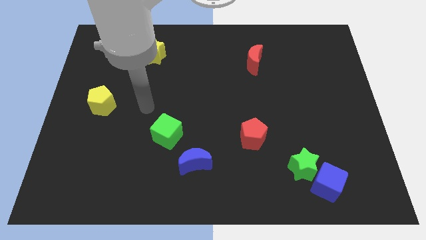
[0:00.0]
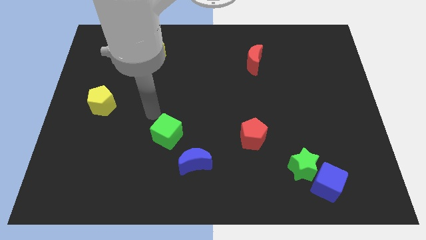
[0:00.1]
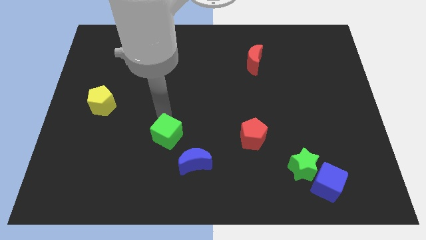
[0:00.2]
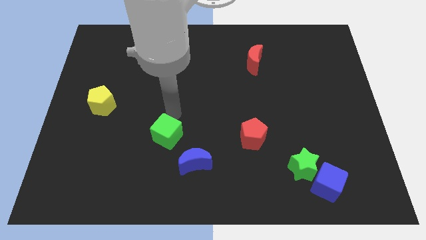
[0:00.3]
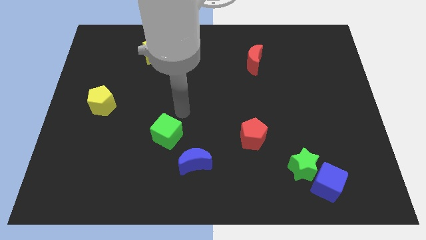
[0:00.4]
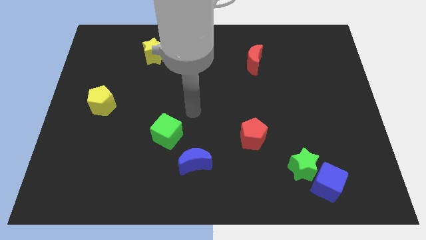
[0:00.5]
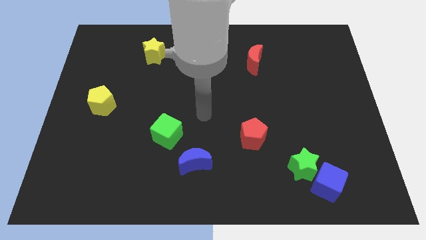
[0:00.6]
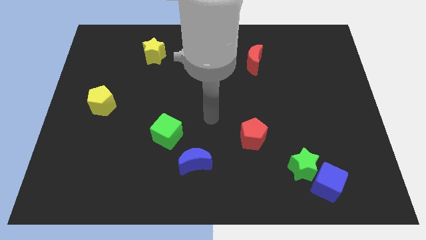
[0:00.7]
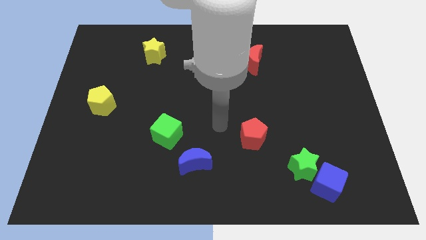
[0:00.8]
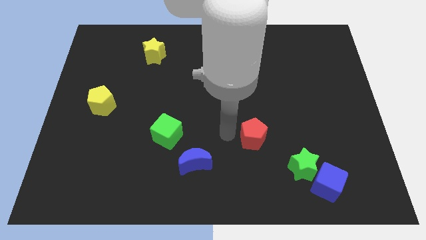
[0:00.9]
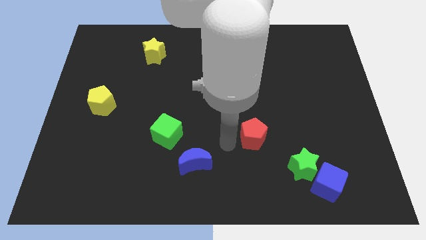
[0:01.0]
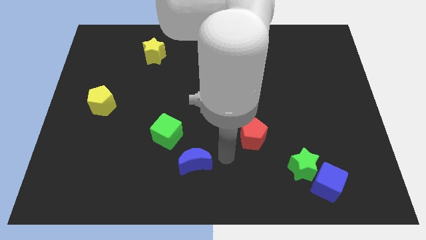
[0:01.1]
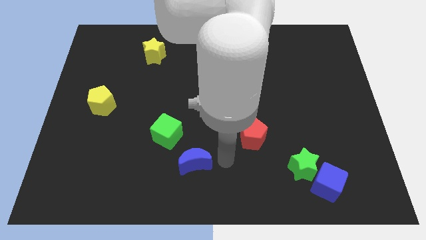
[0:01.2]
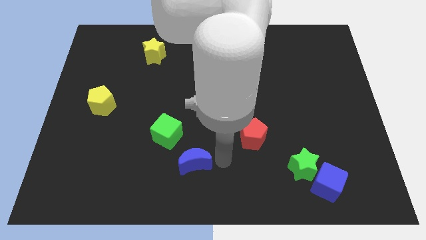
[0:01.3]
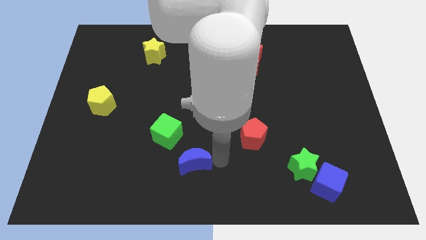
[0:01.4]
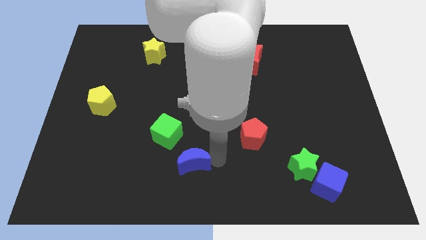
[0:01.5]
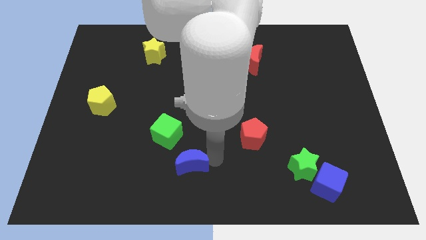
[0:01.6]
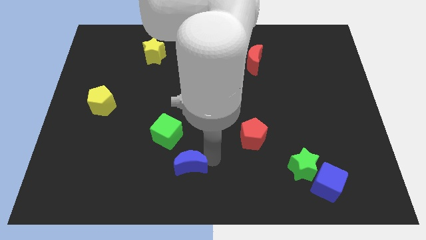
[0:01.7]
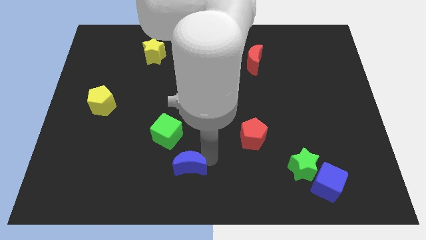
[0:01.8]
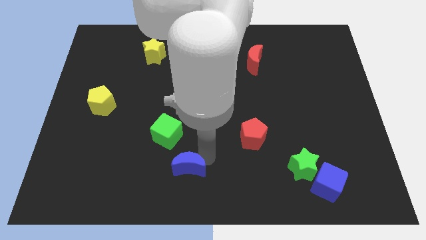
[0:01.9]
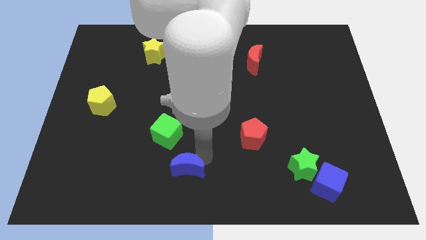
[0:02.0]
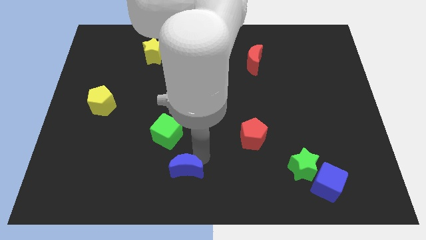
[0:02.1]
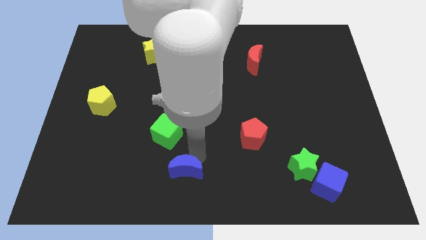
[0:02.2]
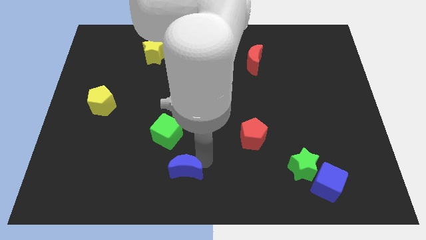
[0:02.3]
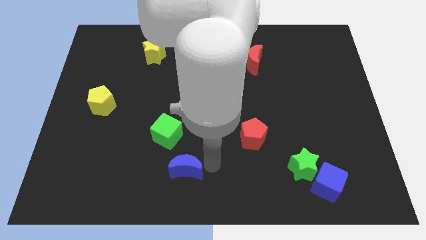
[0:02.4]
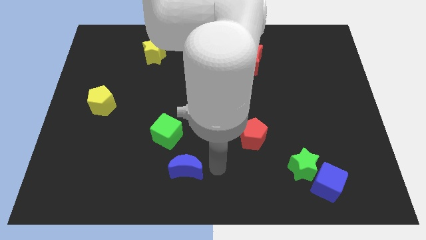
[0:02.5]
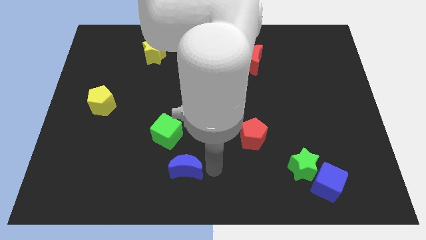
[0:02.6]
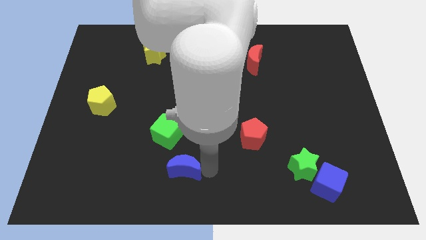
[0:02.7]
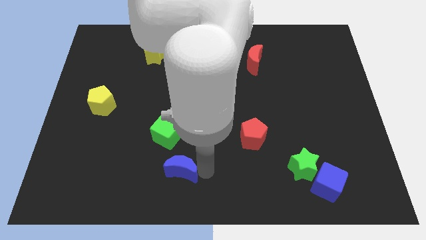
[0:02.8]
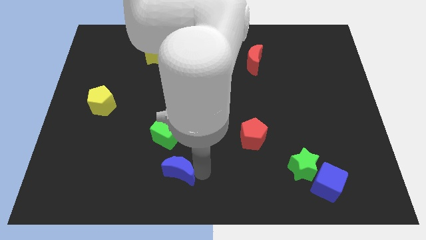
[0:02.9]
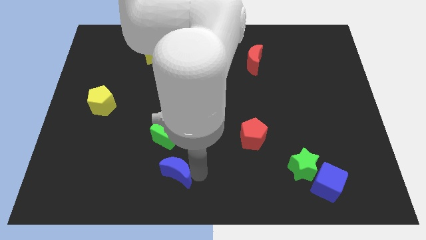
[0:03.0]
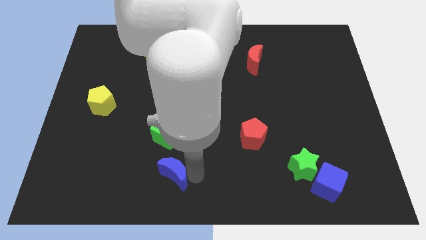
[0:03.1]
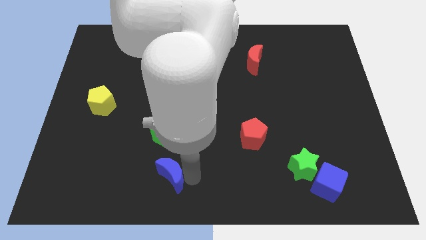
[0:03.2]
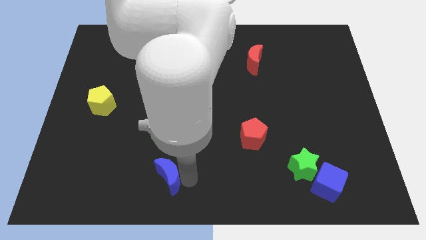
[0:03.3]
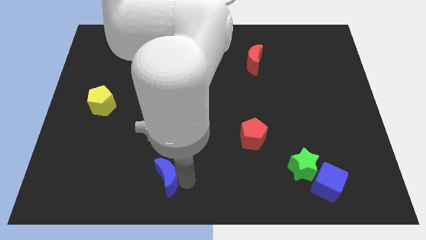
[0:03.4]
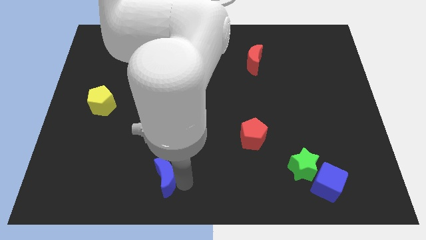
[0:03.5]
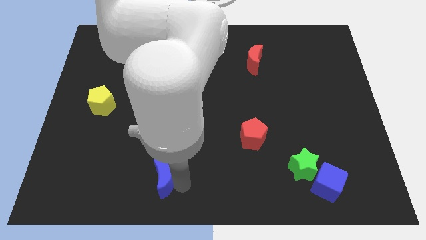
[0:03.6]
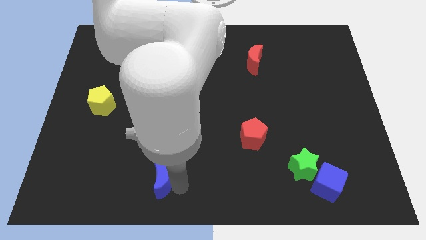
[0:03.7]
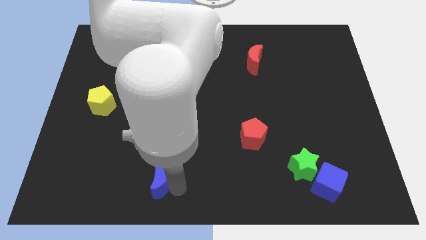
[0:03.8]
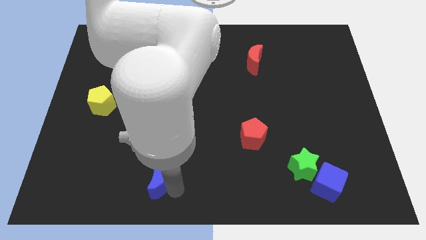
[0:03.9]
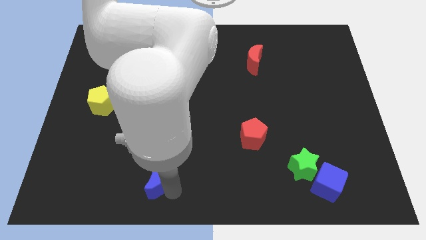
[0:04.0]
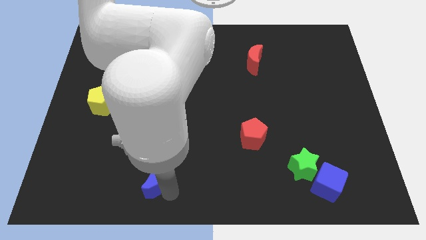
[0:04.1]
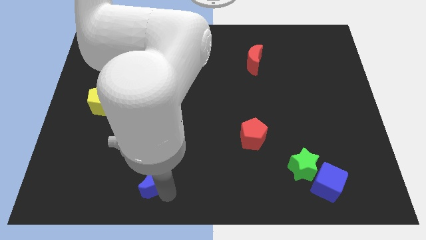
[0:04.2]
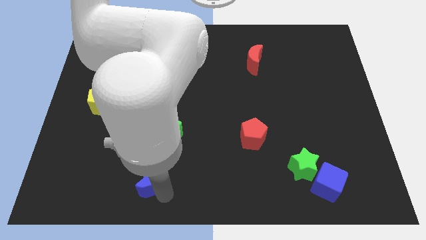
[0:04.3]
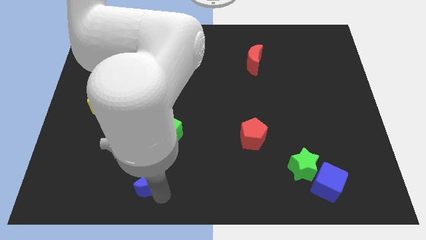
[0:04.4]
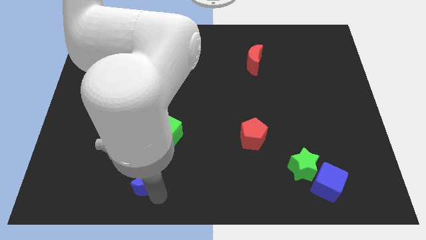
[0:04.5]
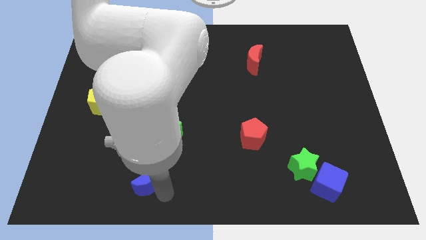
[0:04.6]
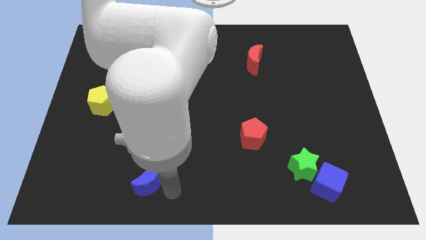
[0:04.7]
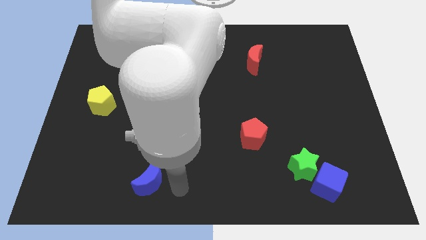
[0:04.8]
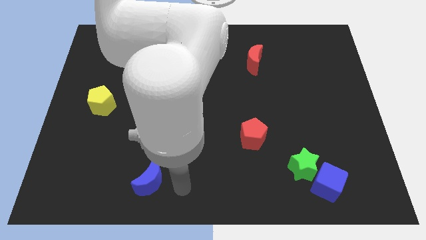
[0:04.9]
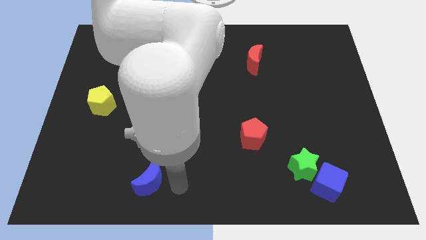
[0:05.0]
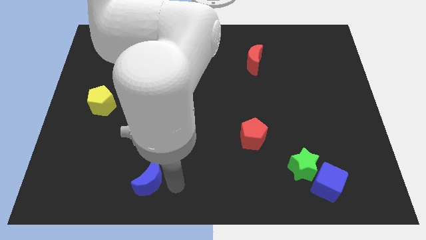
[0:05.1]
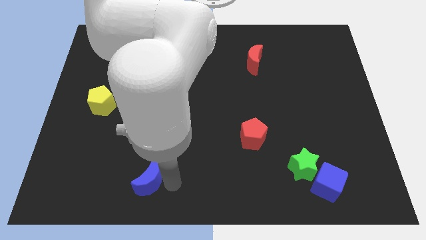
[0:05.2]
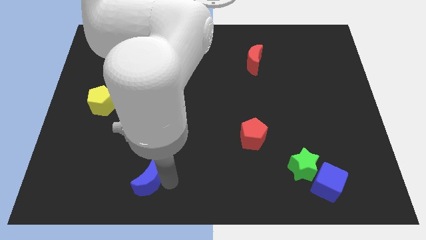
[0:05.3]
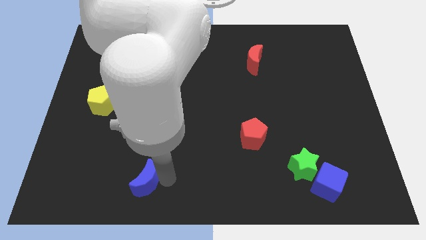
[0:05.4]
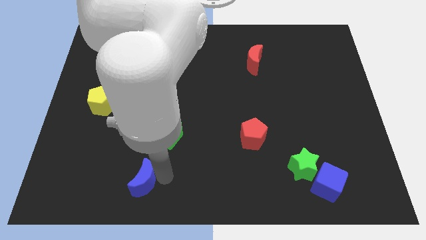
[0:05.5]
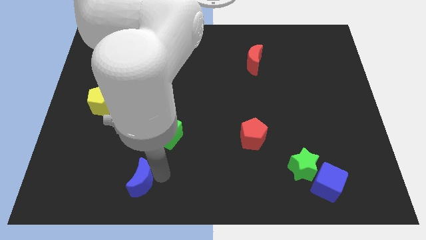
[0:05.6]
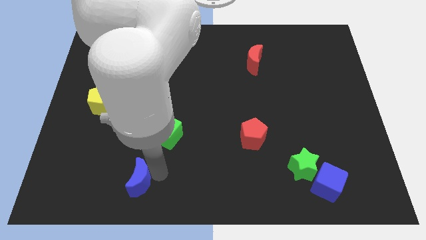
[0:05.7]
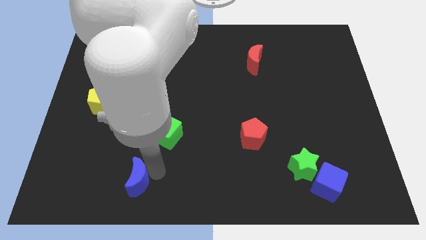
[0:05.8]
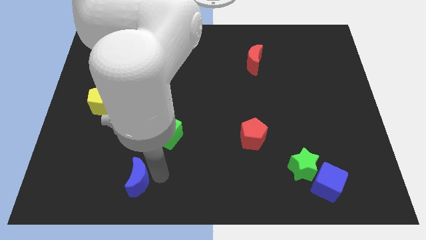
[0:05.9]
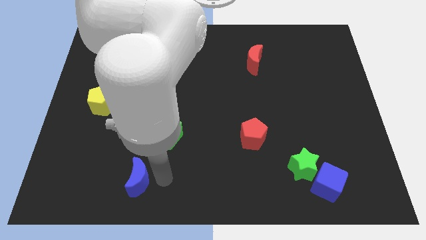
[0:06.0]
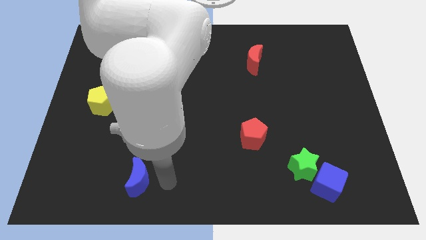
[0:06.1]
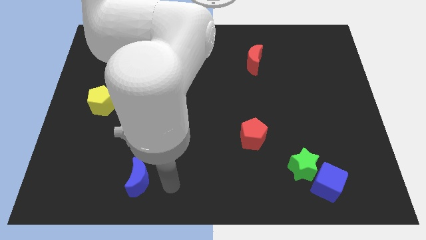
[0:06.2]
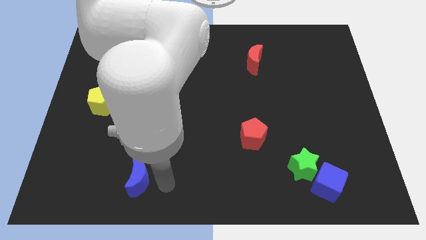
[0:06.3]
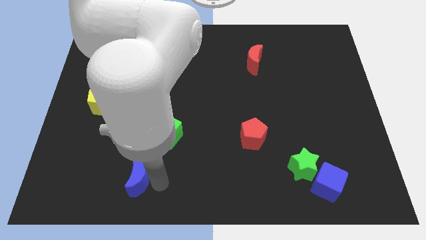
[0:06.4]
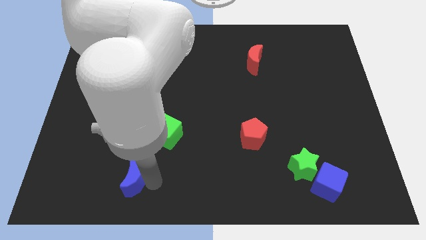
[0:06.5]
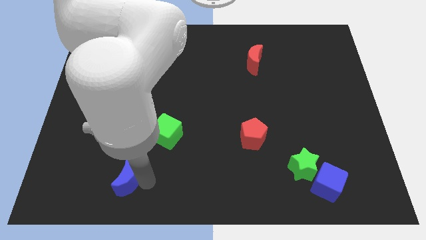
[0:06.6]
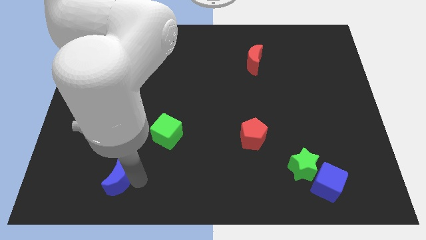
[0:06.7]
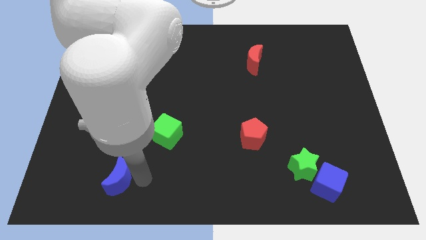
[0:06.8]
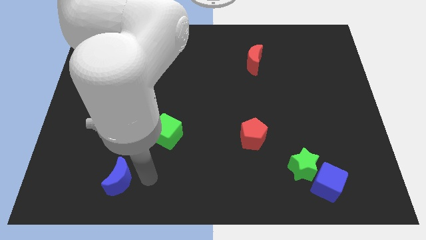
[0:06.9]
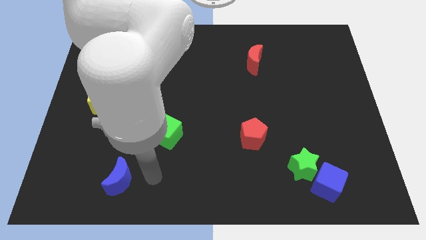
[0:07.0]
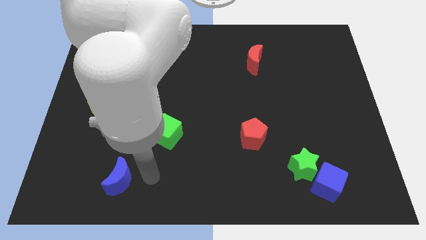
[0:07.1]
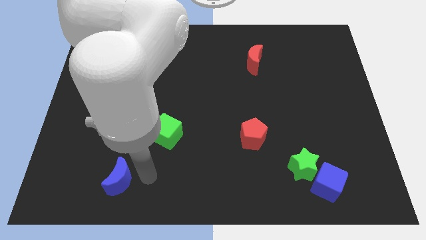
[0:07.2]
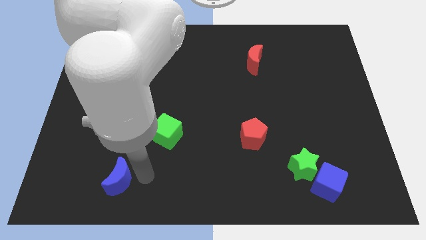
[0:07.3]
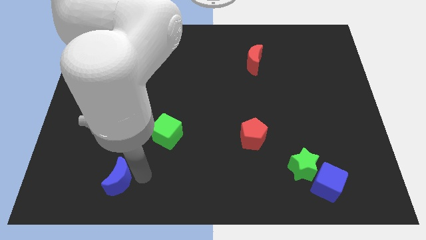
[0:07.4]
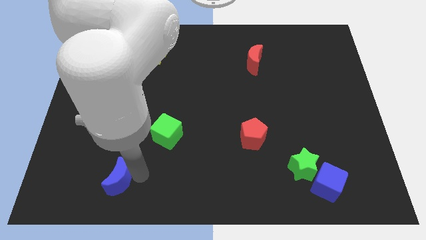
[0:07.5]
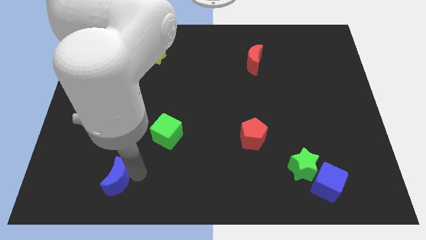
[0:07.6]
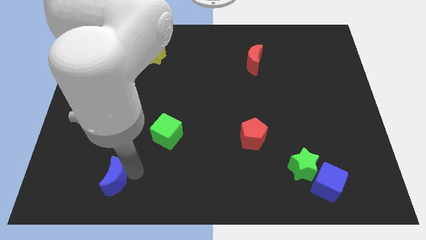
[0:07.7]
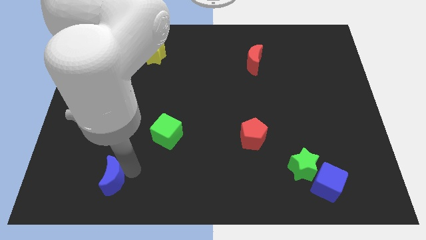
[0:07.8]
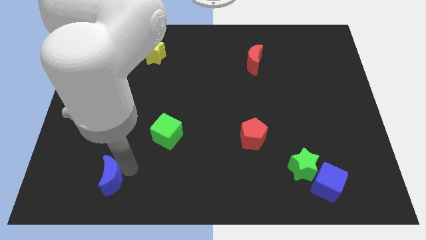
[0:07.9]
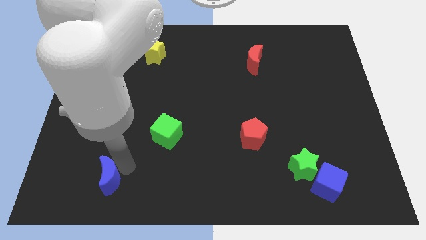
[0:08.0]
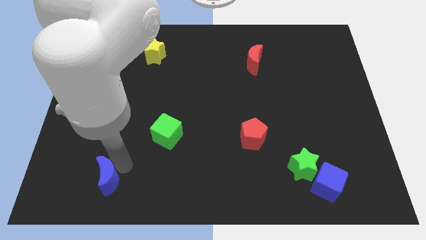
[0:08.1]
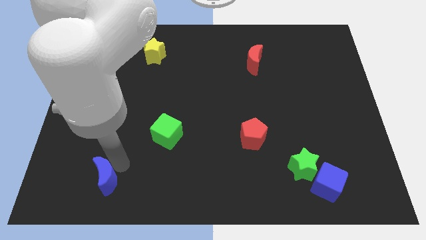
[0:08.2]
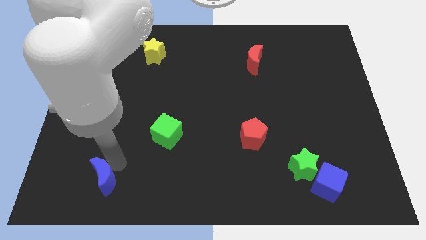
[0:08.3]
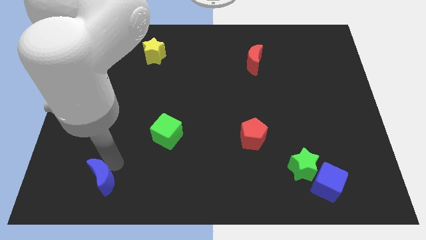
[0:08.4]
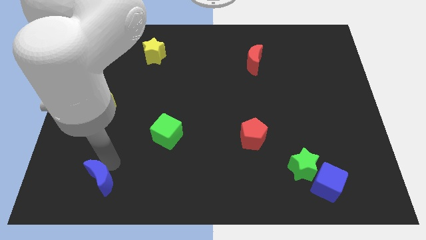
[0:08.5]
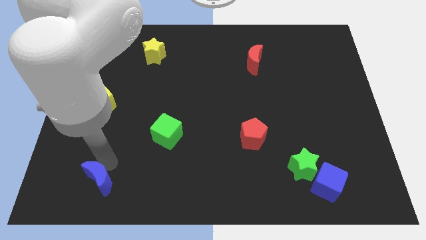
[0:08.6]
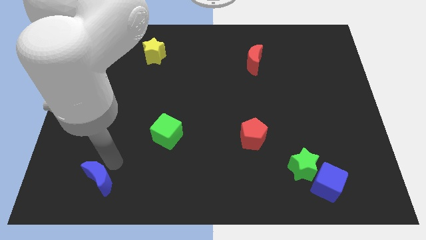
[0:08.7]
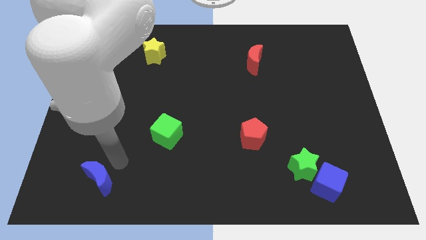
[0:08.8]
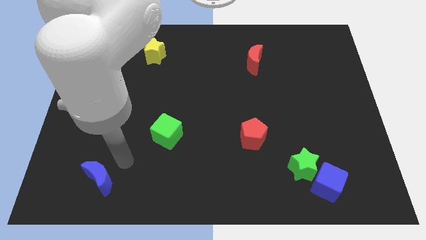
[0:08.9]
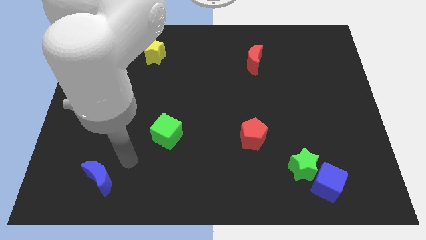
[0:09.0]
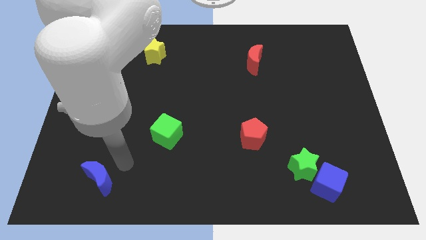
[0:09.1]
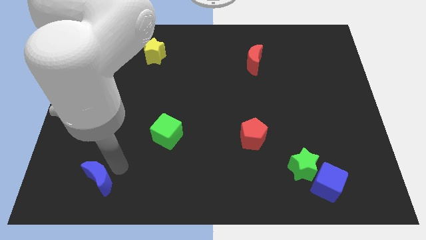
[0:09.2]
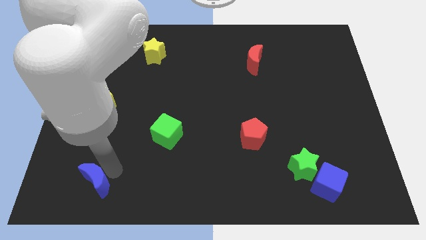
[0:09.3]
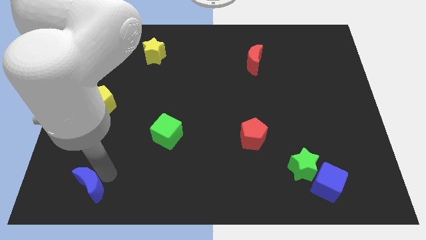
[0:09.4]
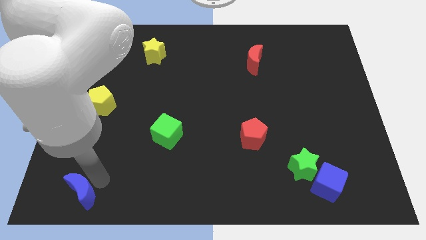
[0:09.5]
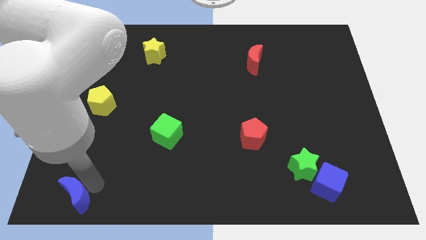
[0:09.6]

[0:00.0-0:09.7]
put the blue moon to the bottom left of the board
